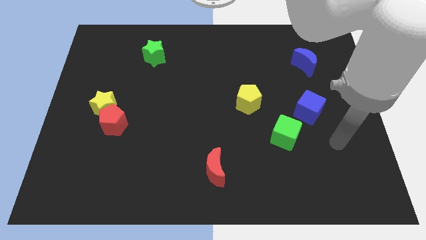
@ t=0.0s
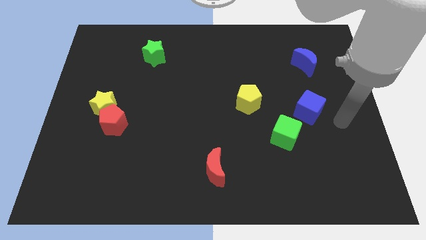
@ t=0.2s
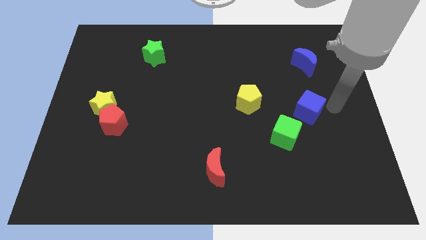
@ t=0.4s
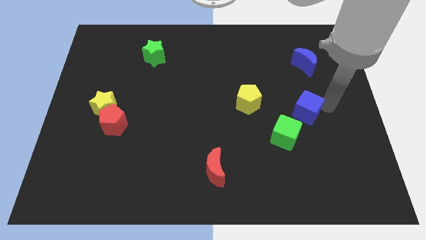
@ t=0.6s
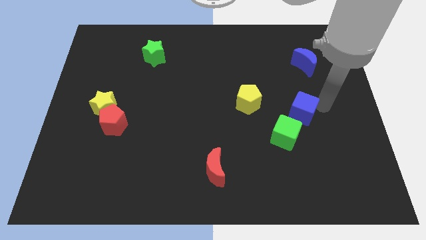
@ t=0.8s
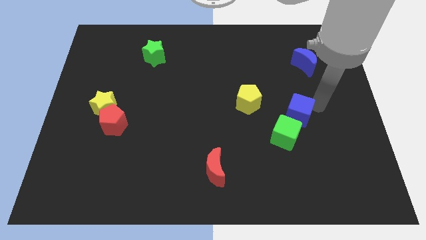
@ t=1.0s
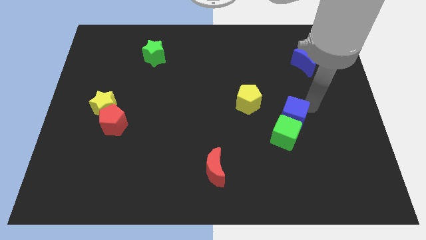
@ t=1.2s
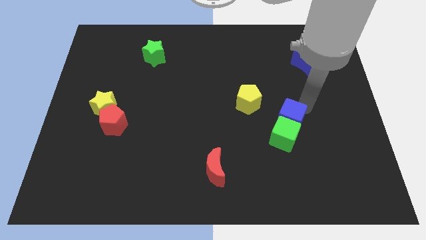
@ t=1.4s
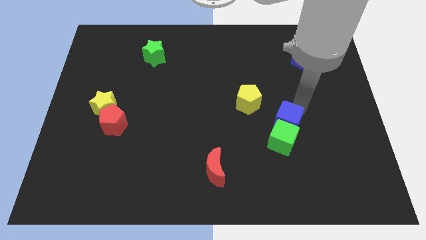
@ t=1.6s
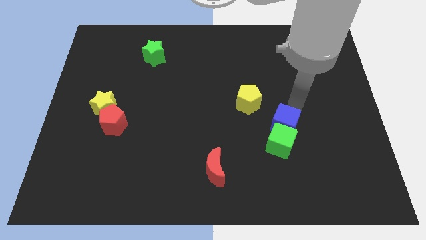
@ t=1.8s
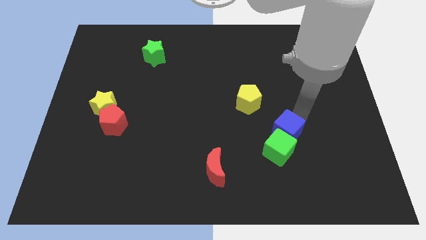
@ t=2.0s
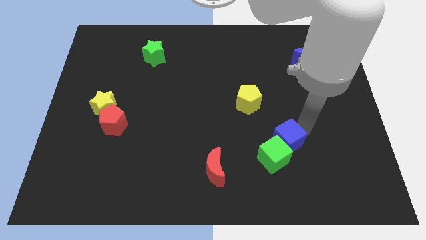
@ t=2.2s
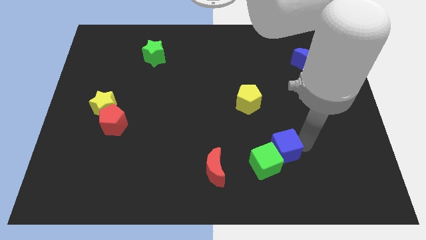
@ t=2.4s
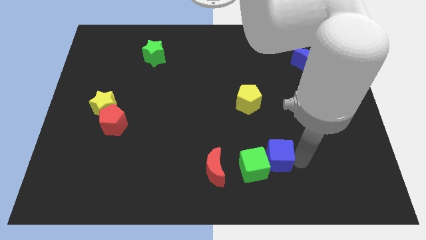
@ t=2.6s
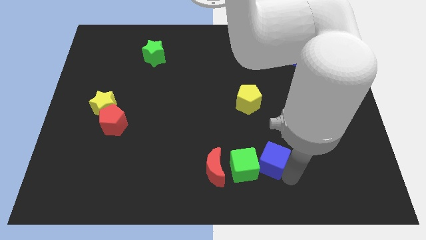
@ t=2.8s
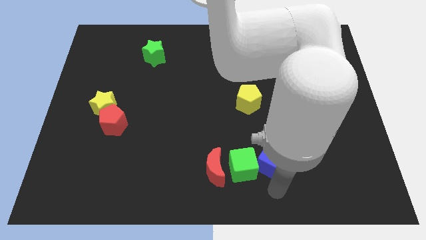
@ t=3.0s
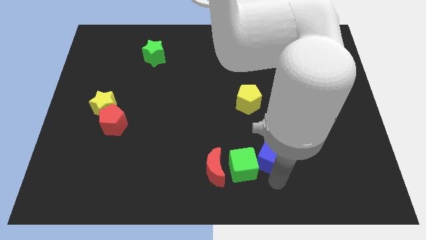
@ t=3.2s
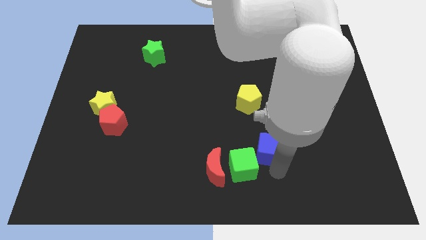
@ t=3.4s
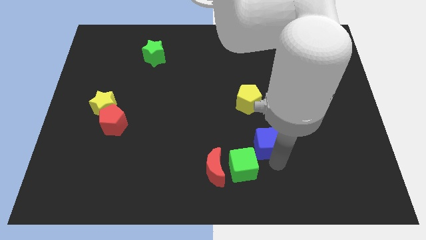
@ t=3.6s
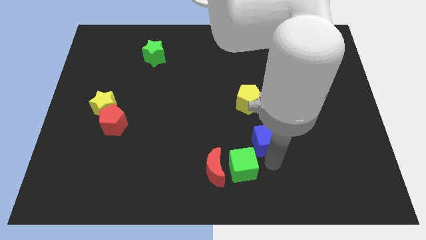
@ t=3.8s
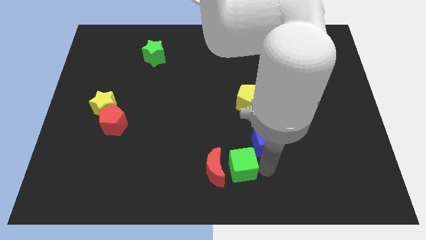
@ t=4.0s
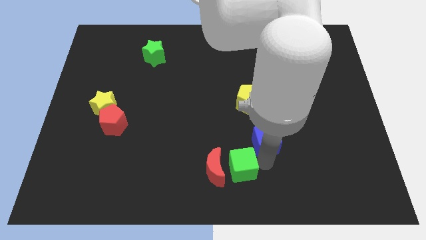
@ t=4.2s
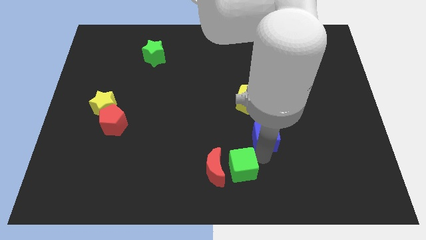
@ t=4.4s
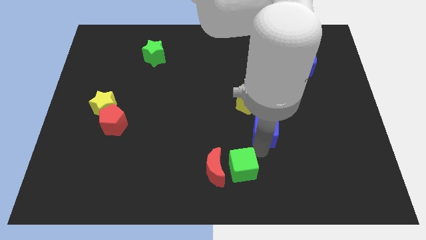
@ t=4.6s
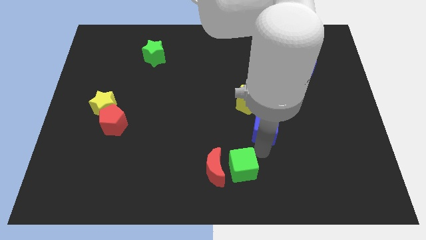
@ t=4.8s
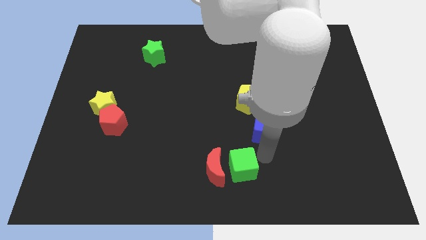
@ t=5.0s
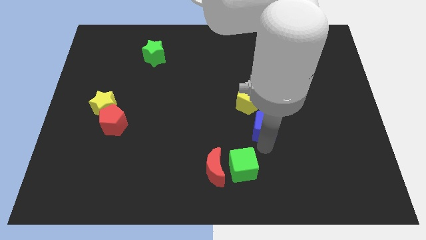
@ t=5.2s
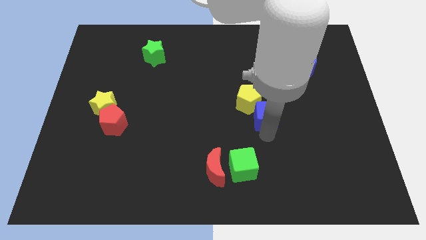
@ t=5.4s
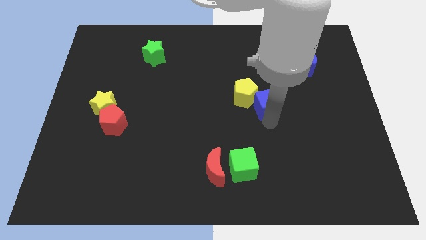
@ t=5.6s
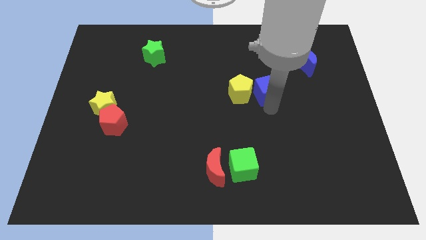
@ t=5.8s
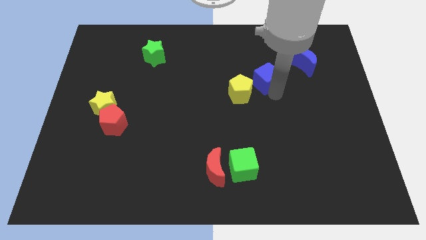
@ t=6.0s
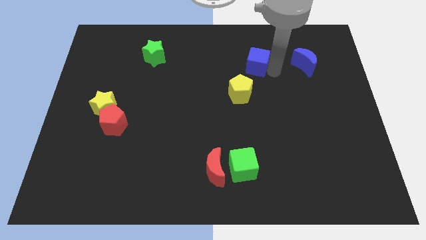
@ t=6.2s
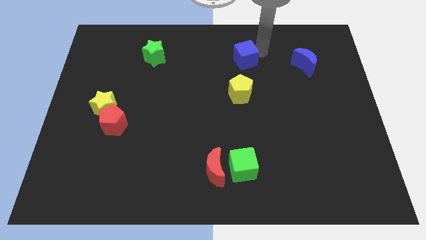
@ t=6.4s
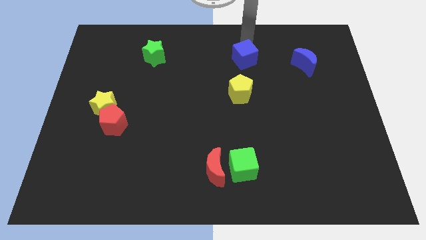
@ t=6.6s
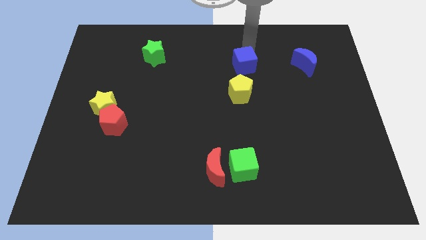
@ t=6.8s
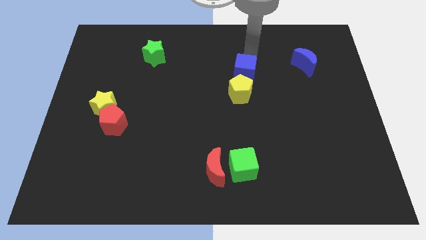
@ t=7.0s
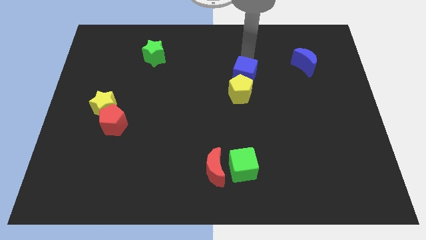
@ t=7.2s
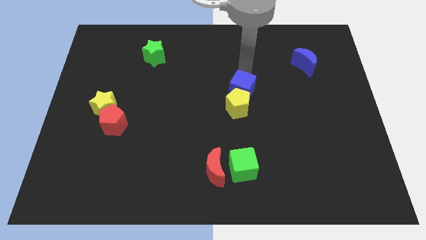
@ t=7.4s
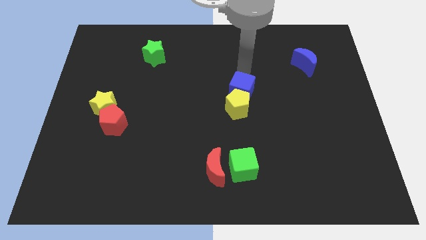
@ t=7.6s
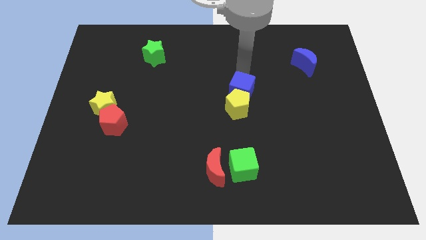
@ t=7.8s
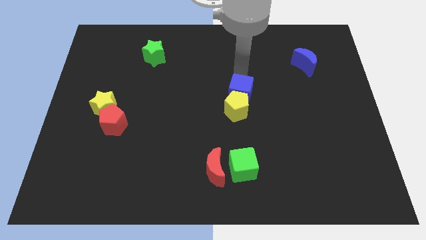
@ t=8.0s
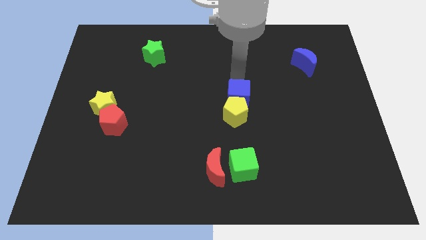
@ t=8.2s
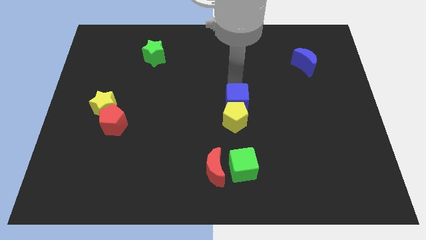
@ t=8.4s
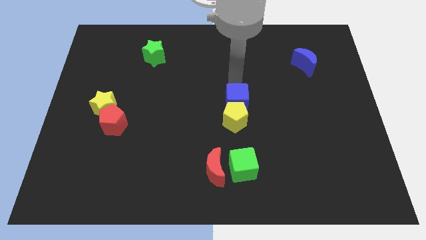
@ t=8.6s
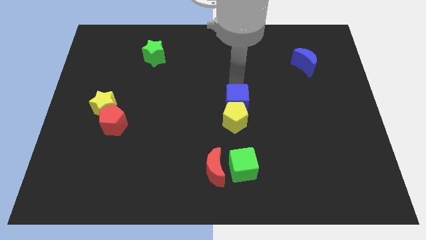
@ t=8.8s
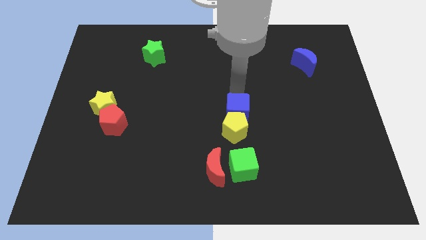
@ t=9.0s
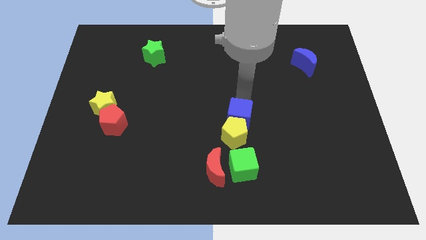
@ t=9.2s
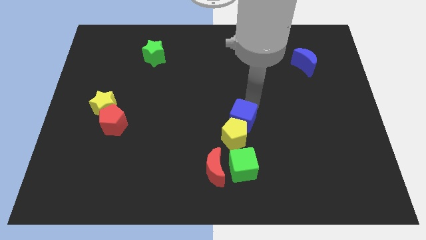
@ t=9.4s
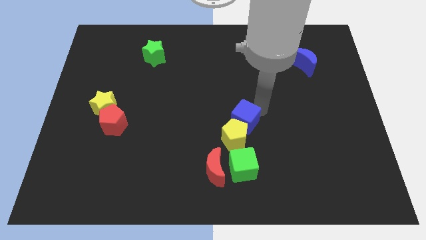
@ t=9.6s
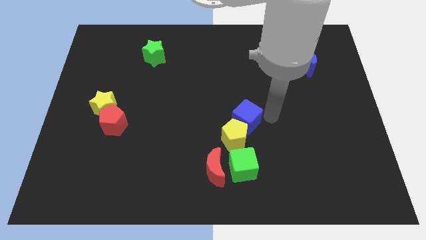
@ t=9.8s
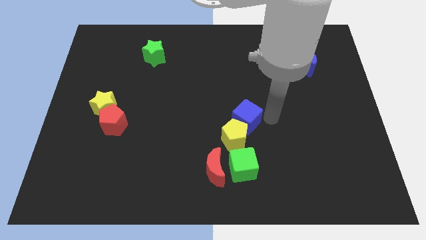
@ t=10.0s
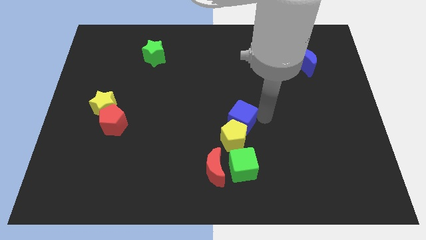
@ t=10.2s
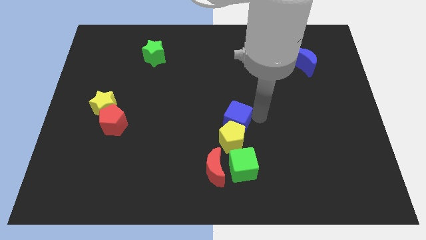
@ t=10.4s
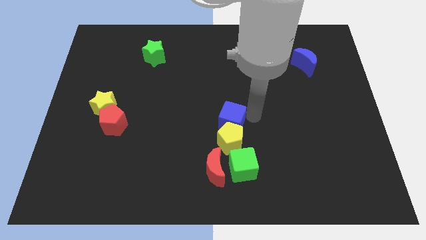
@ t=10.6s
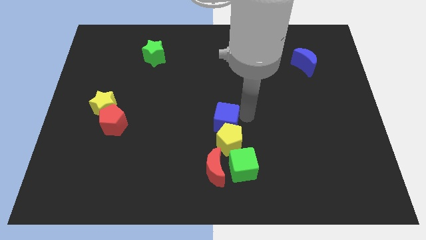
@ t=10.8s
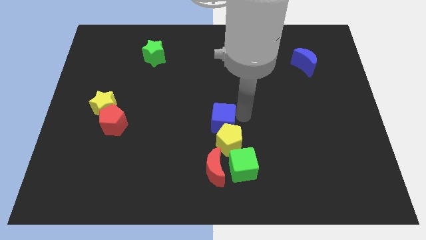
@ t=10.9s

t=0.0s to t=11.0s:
move the blue cube left

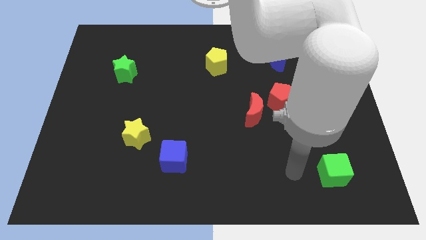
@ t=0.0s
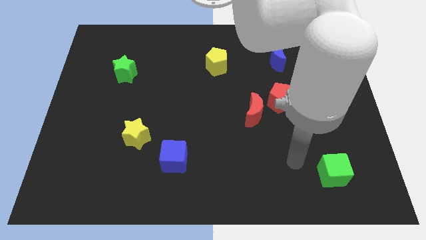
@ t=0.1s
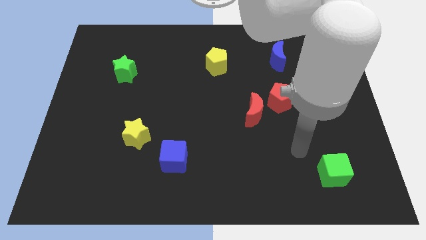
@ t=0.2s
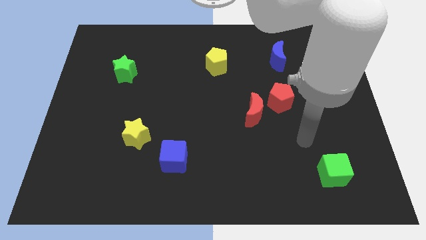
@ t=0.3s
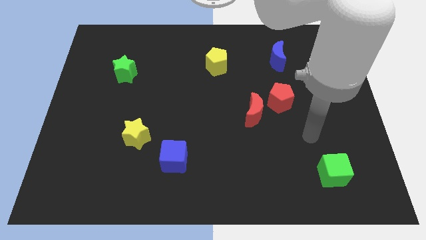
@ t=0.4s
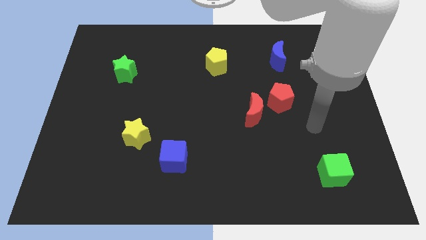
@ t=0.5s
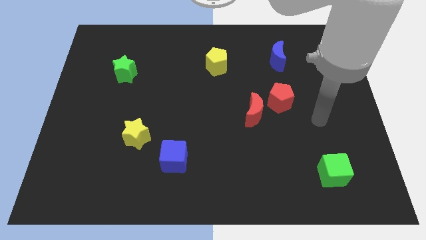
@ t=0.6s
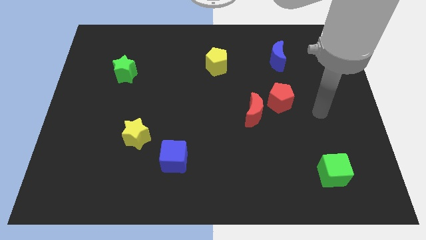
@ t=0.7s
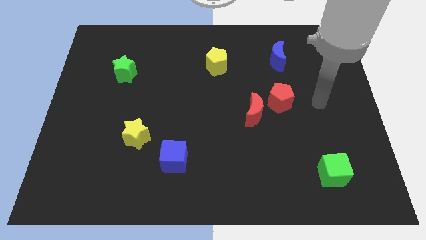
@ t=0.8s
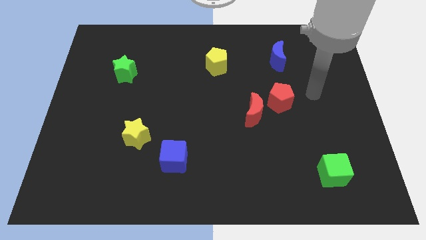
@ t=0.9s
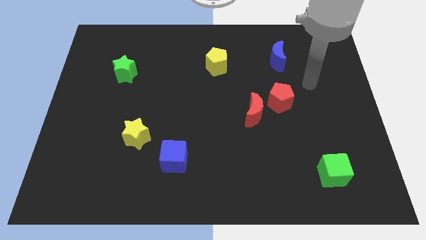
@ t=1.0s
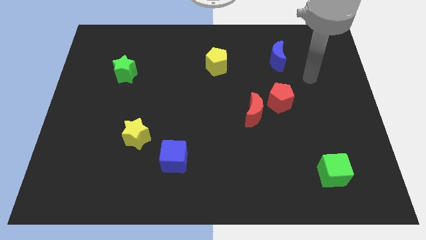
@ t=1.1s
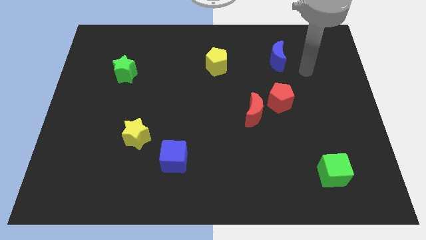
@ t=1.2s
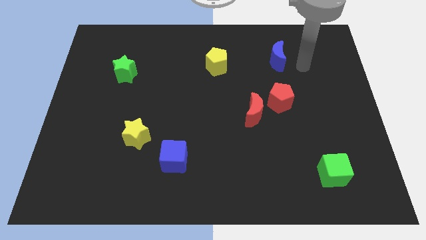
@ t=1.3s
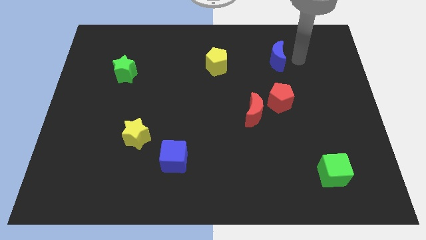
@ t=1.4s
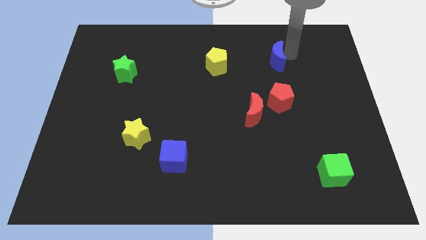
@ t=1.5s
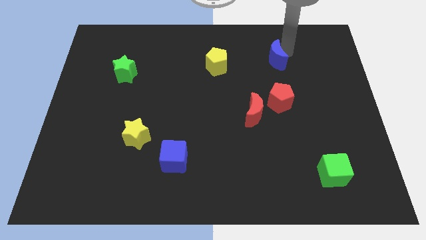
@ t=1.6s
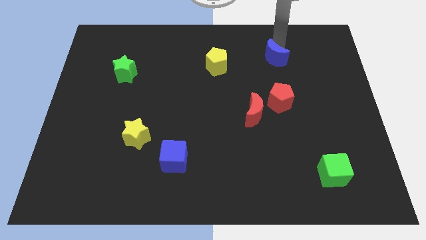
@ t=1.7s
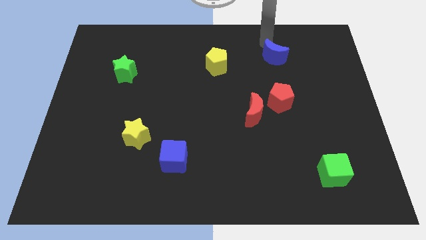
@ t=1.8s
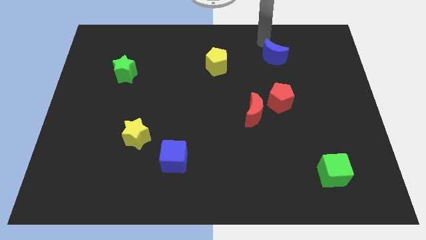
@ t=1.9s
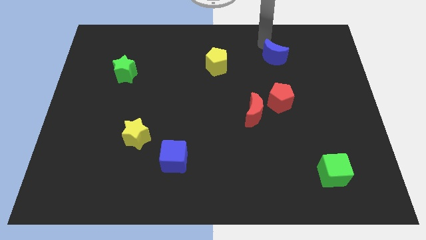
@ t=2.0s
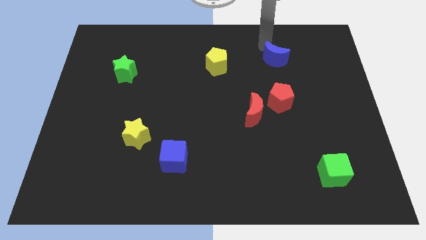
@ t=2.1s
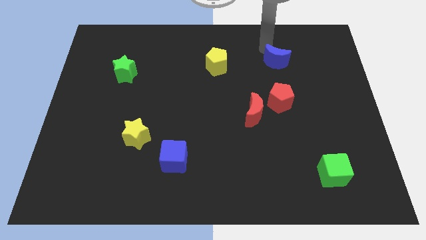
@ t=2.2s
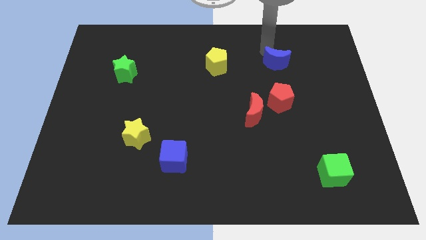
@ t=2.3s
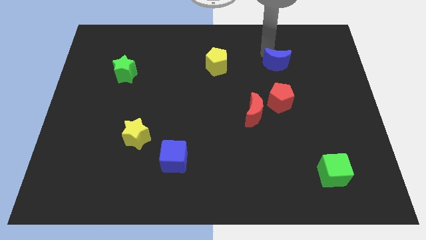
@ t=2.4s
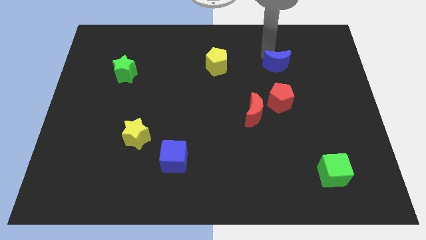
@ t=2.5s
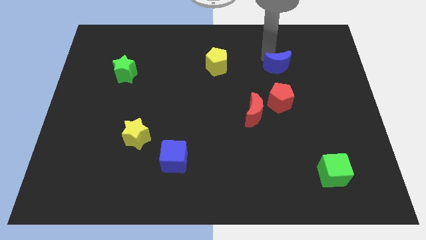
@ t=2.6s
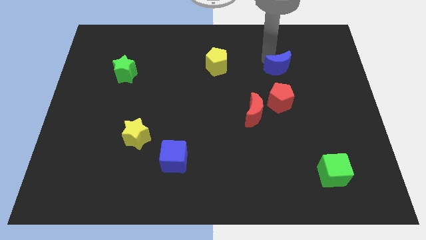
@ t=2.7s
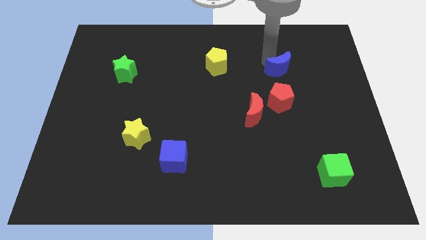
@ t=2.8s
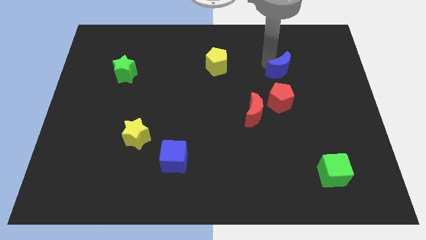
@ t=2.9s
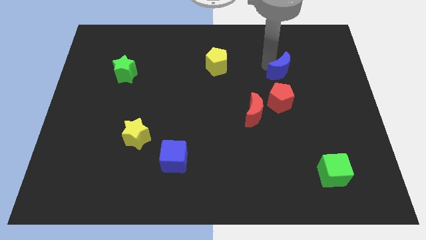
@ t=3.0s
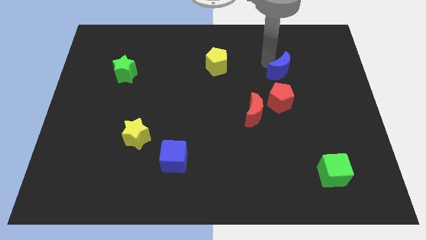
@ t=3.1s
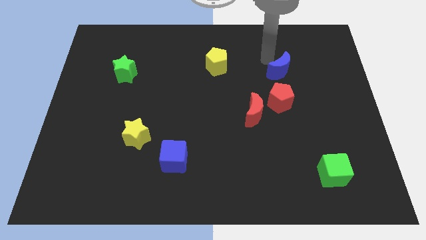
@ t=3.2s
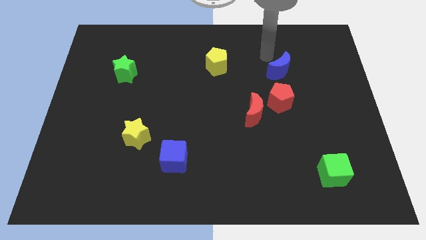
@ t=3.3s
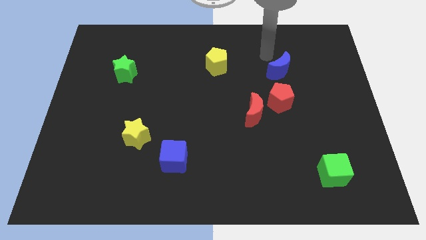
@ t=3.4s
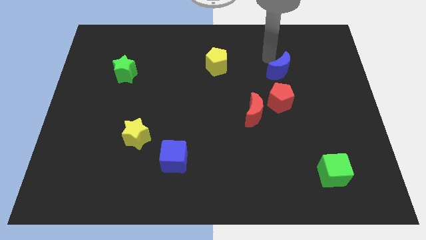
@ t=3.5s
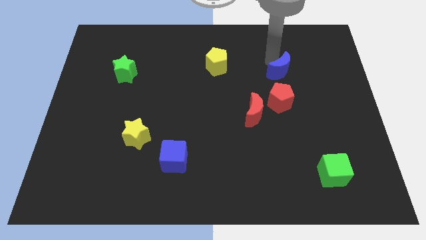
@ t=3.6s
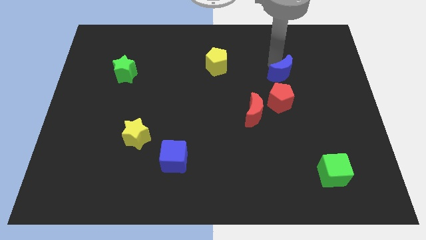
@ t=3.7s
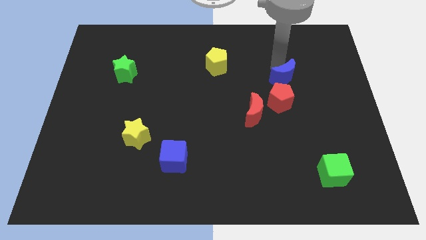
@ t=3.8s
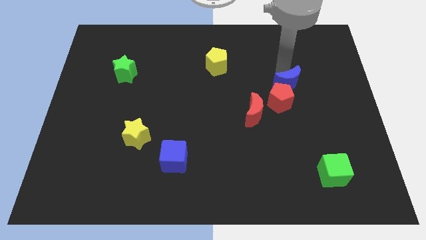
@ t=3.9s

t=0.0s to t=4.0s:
move the blue moon slightly down
